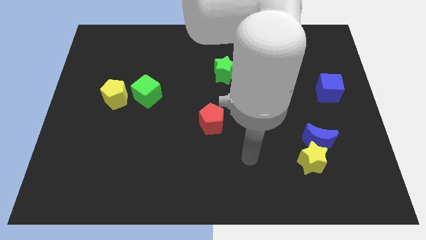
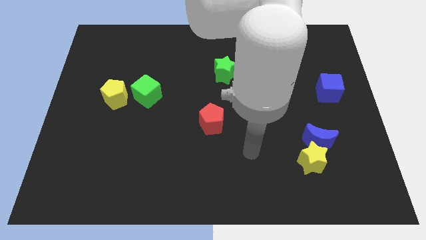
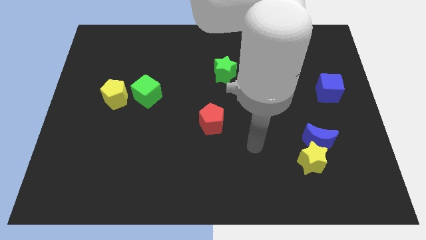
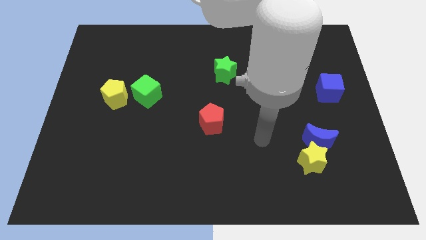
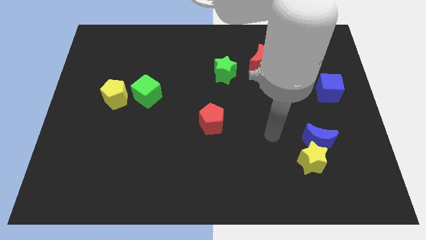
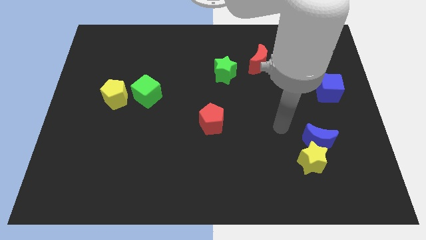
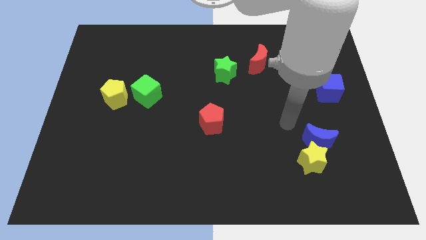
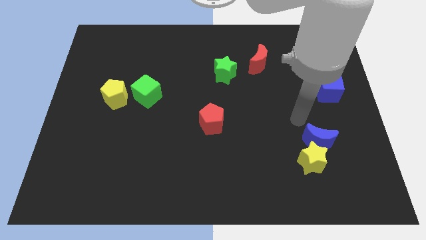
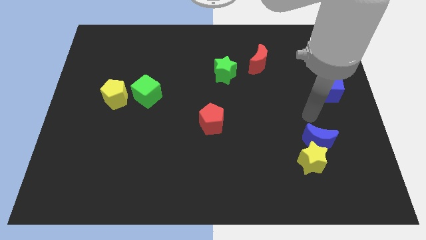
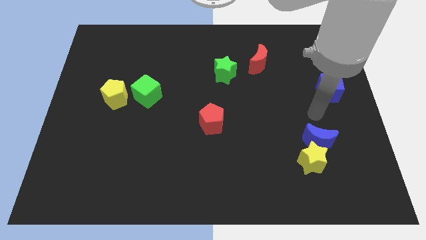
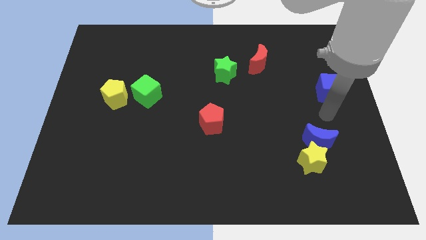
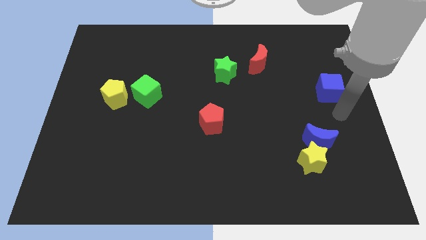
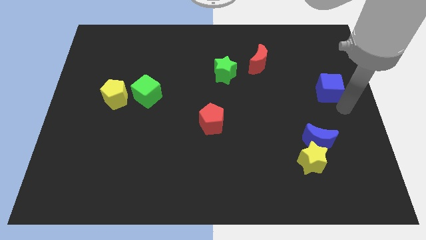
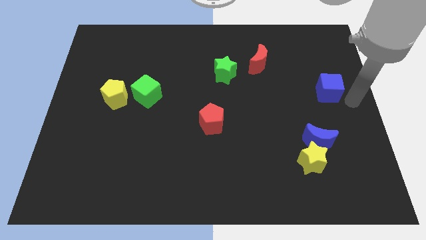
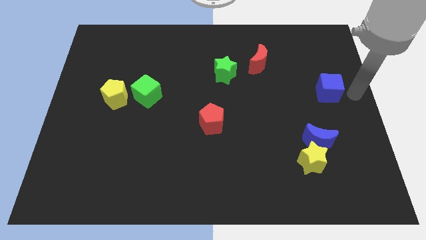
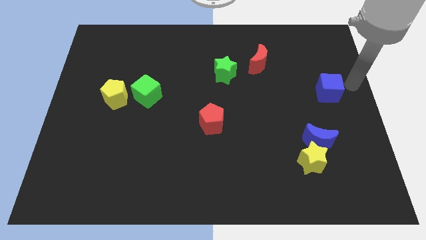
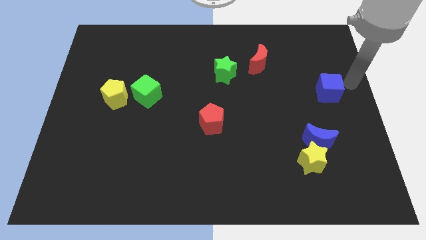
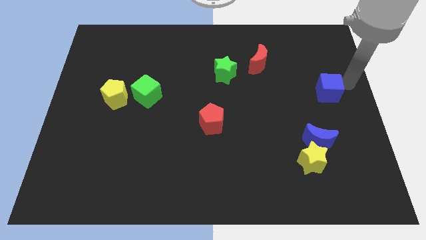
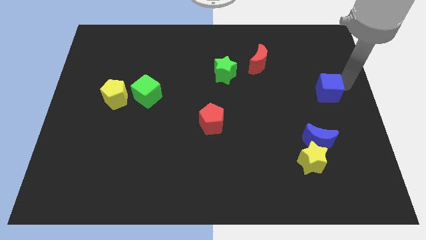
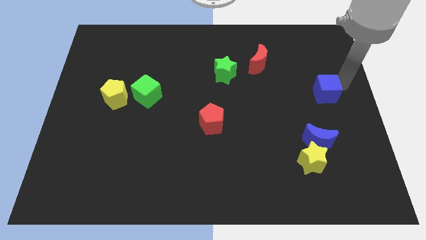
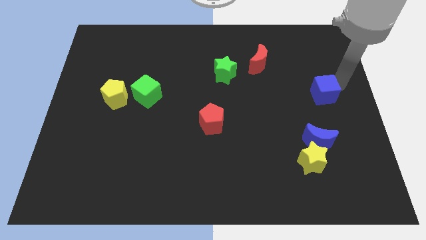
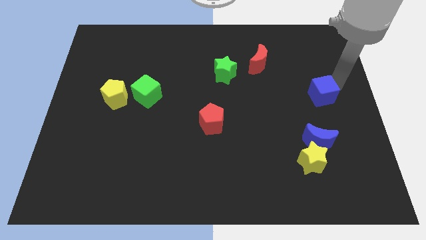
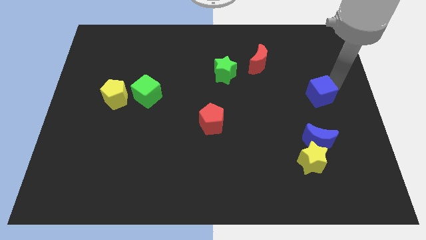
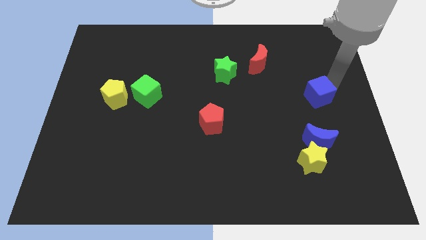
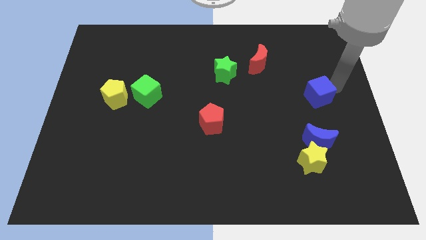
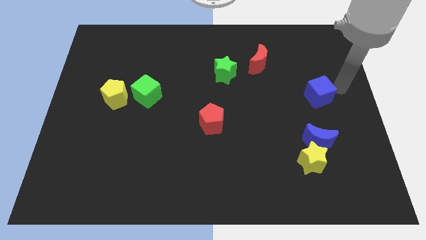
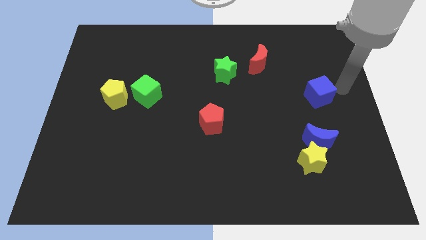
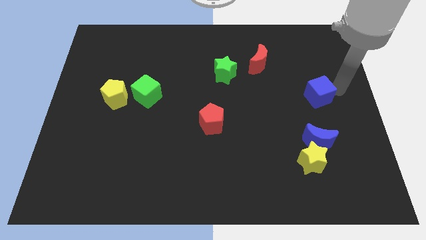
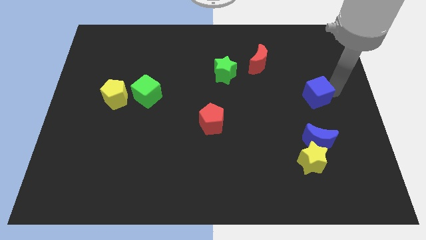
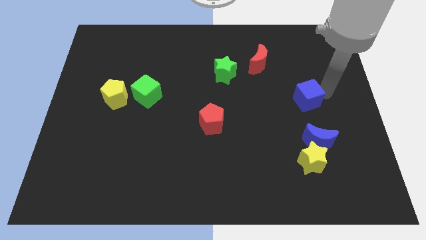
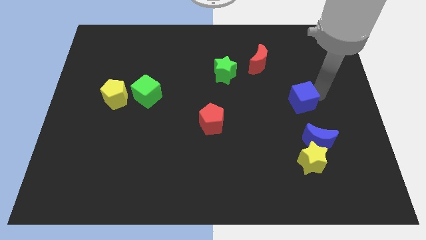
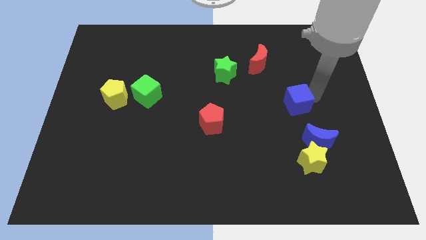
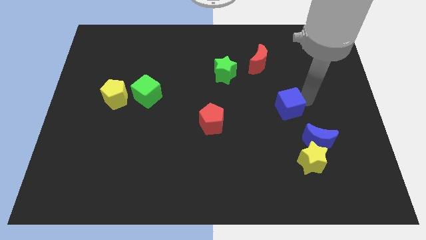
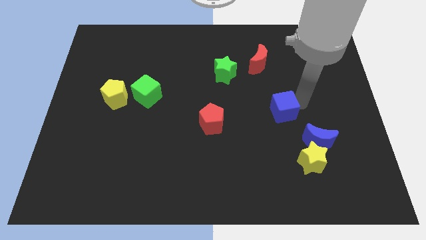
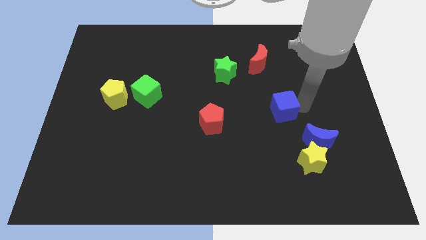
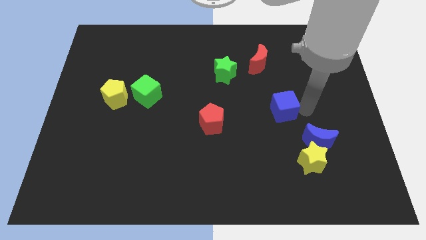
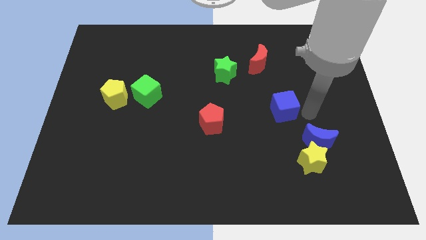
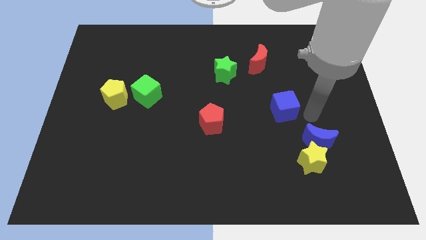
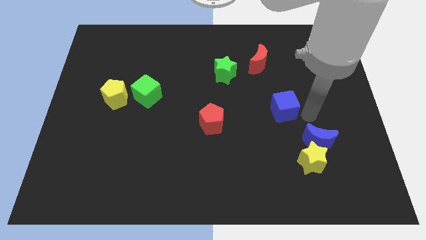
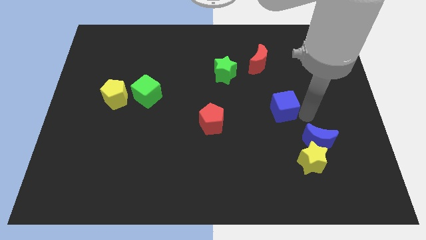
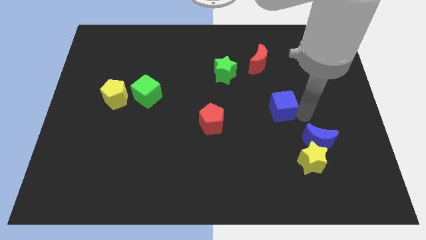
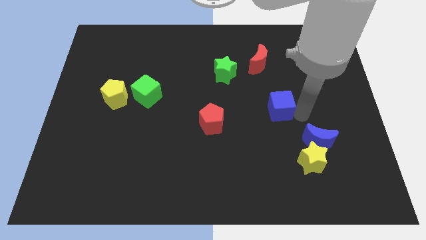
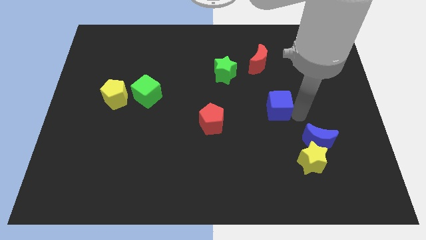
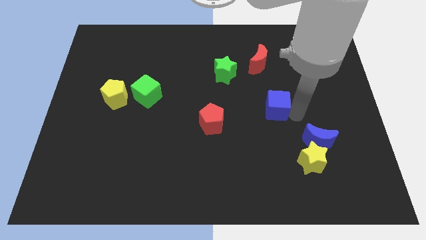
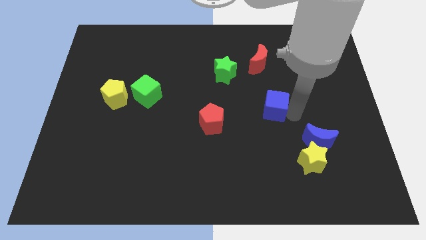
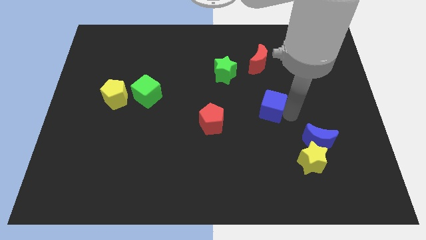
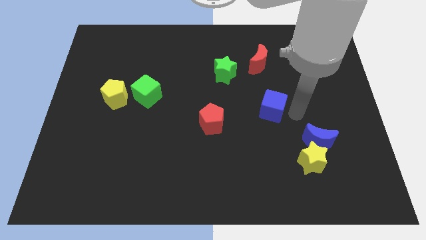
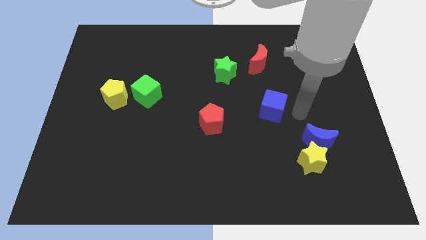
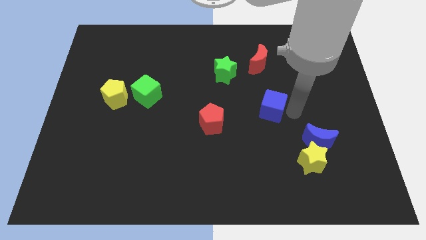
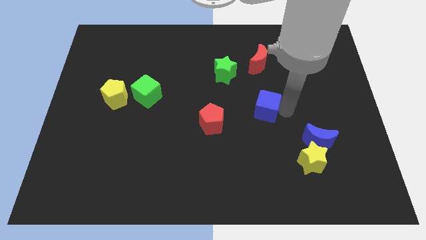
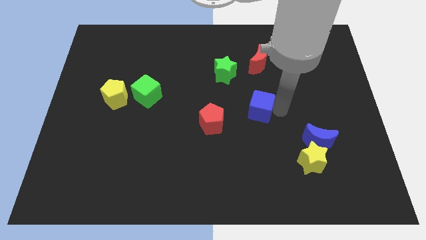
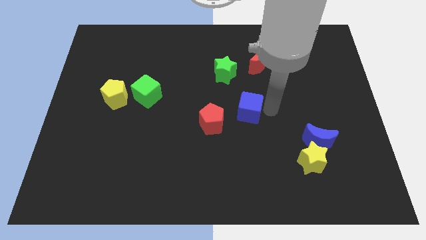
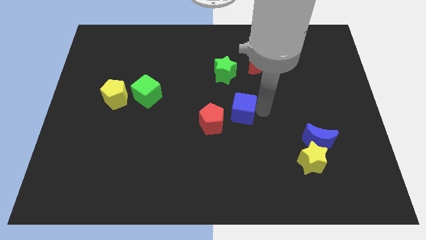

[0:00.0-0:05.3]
slide the blue cube to the bottom of the green star
